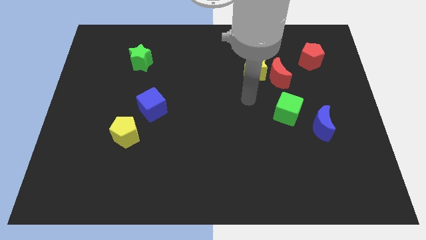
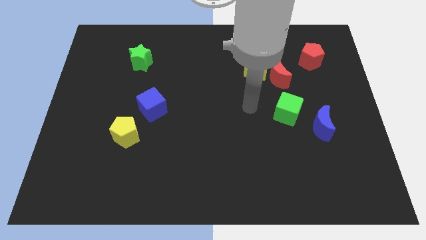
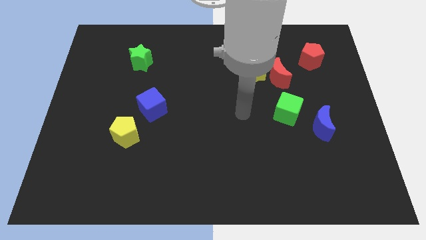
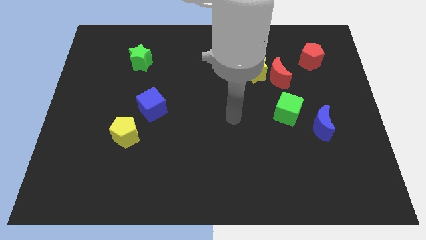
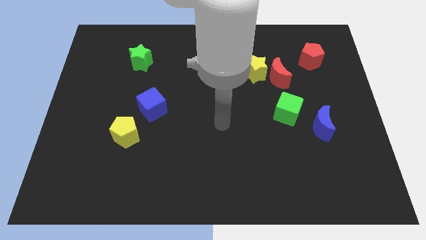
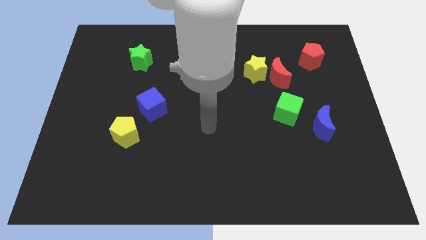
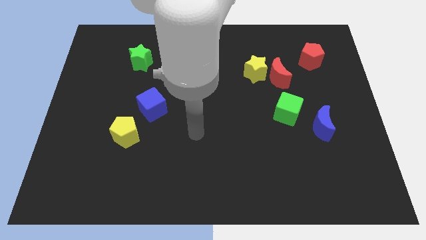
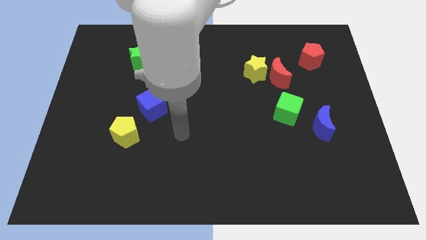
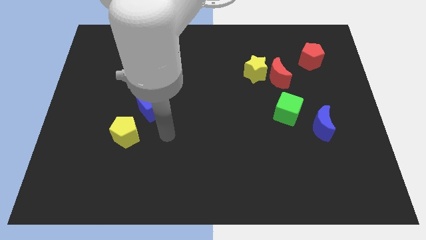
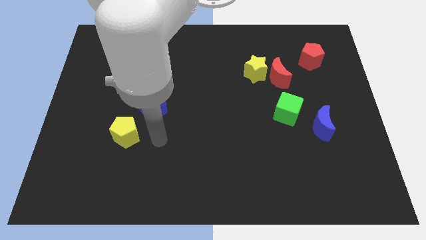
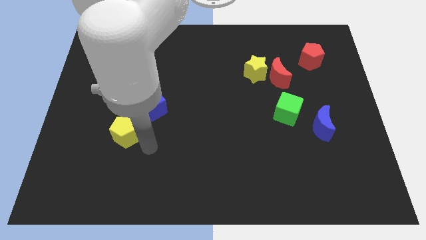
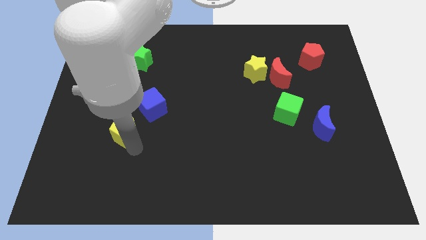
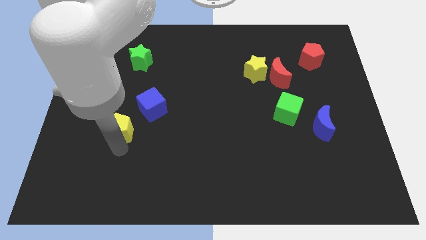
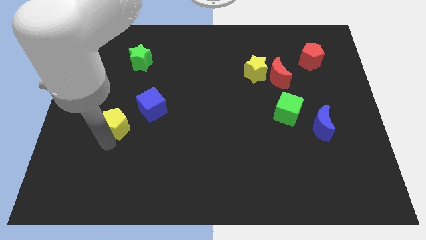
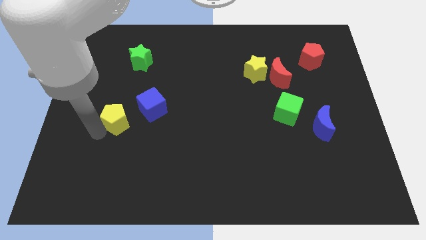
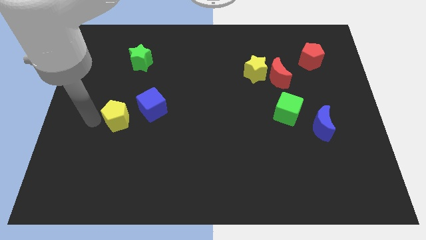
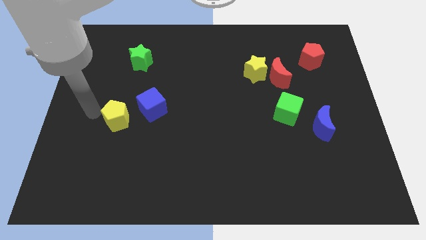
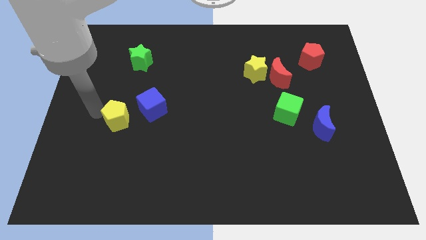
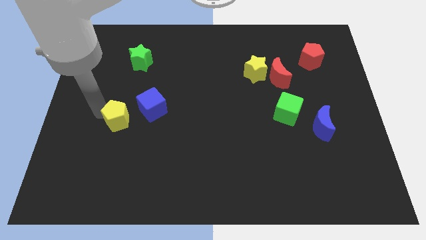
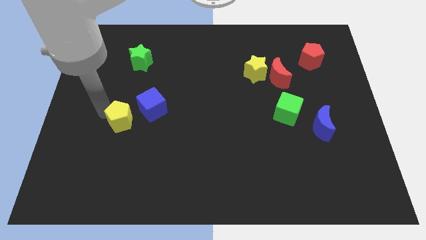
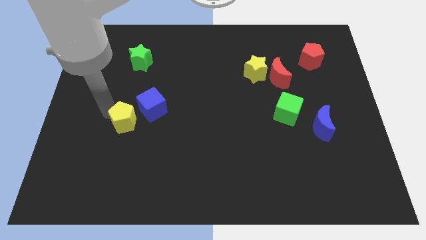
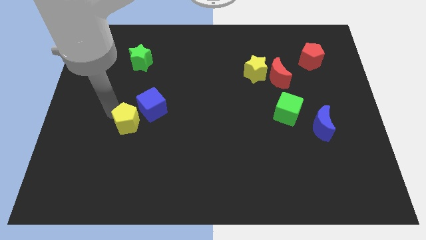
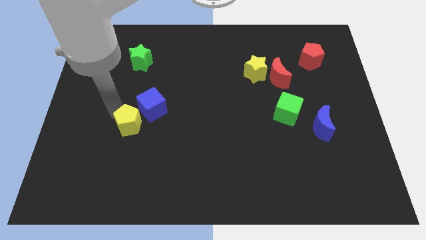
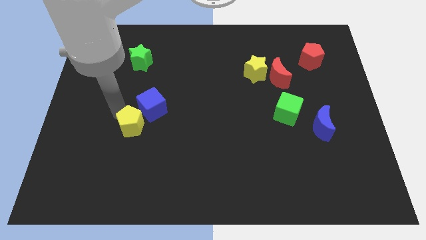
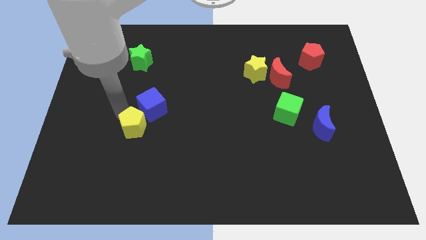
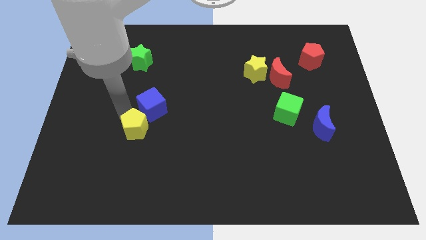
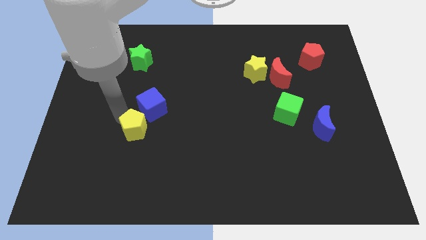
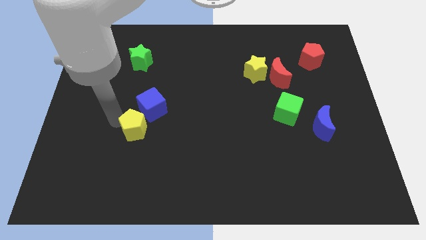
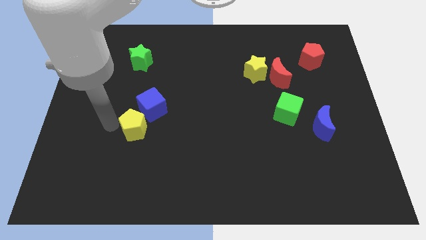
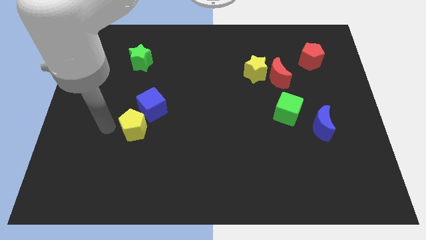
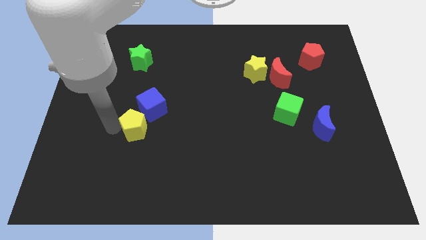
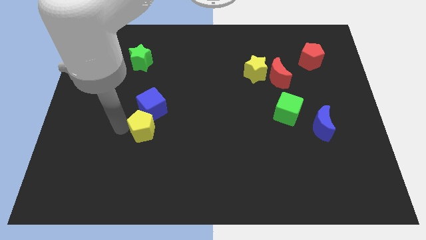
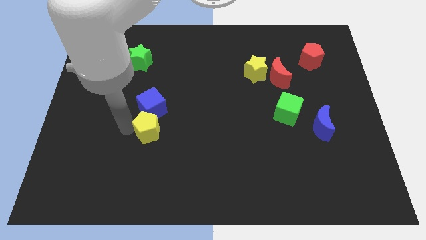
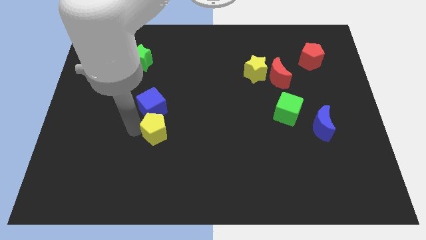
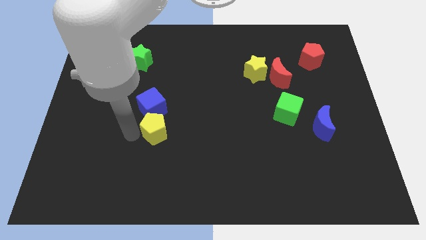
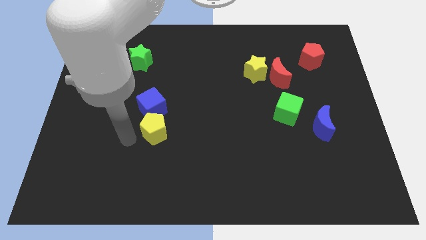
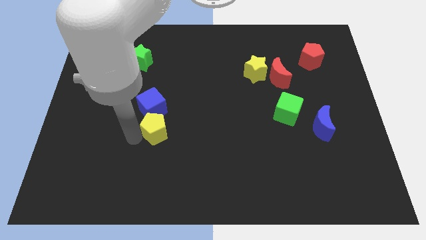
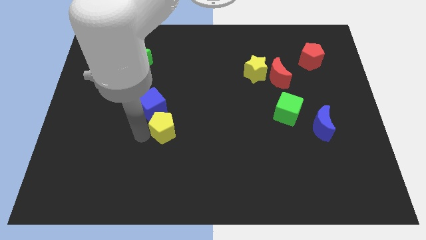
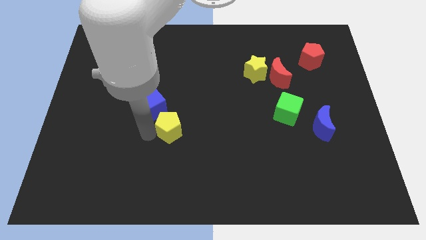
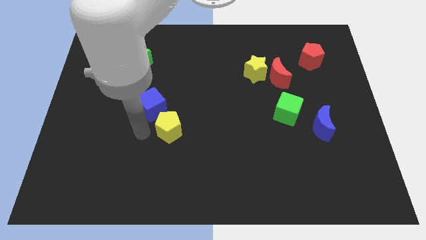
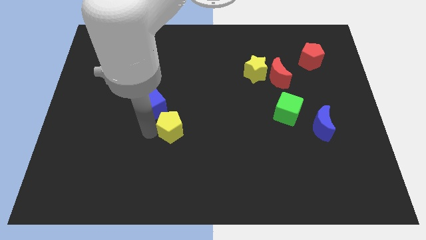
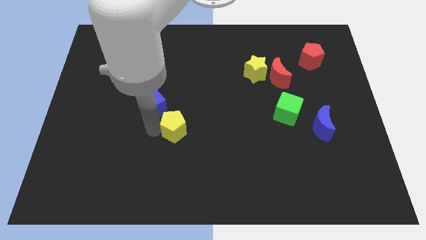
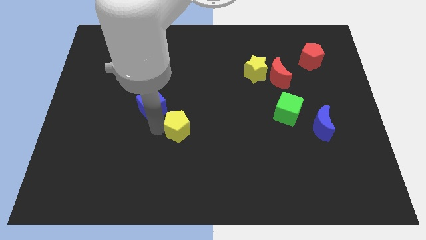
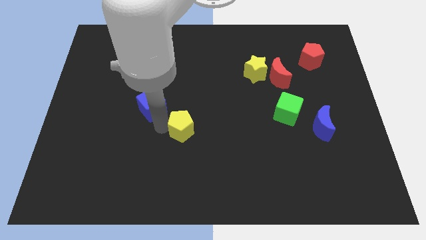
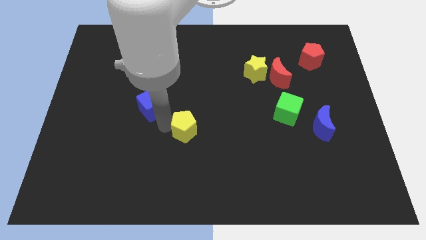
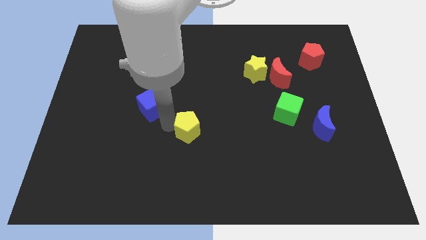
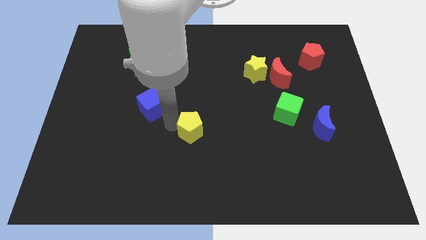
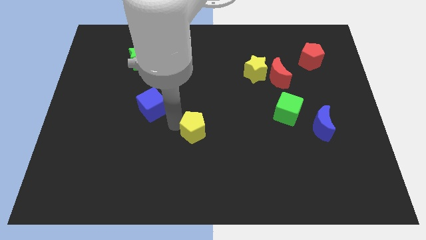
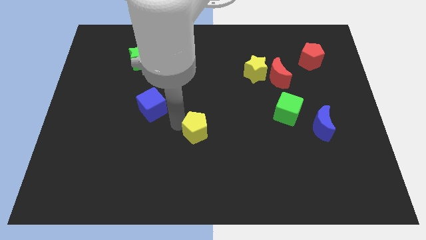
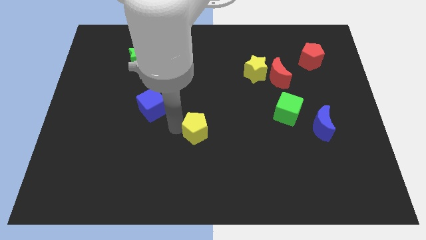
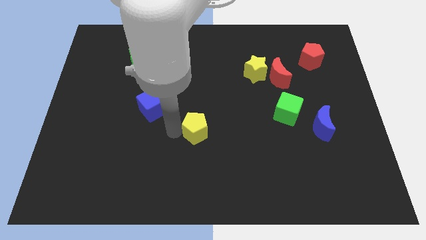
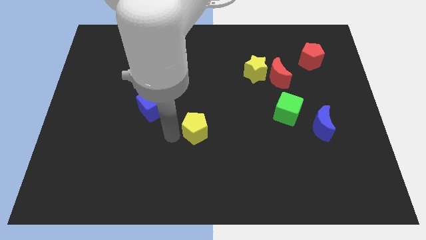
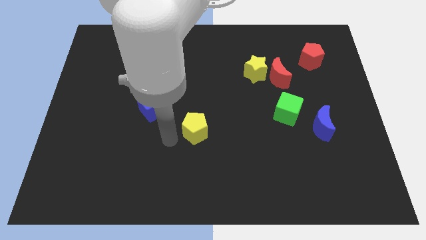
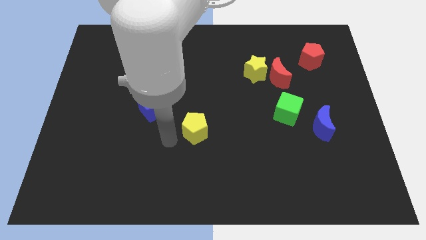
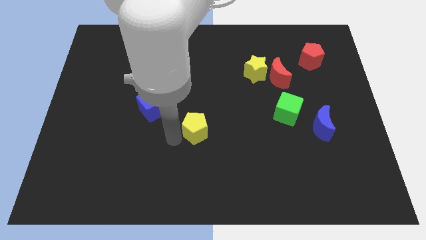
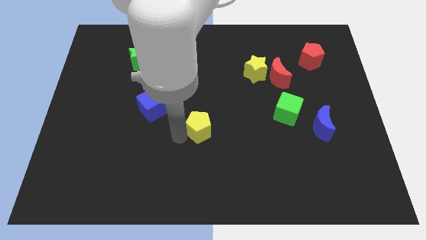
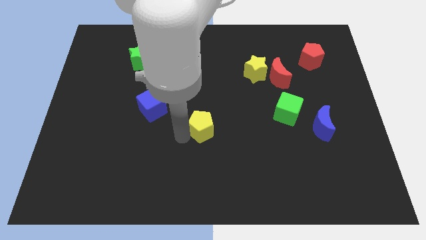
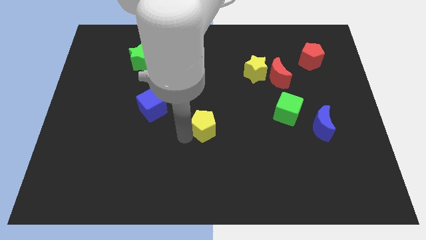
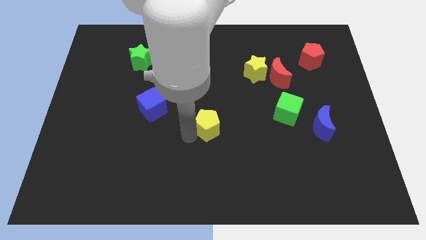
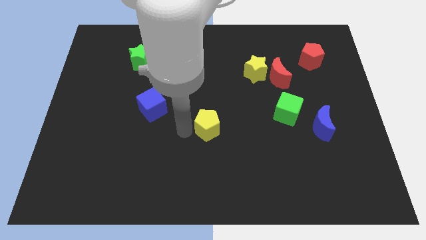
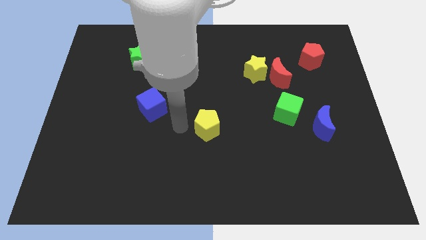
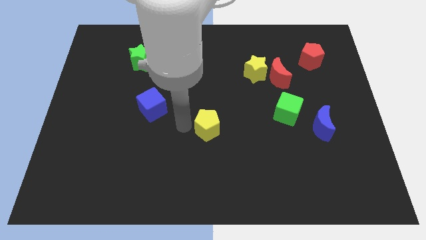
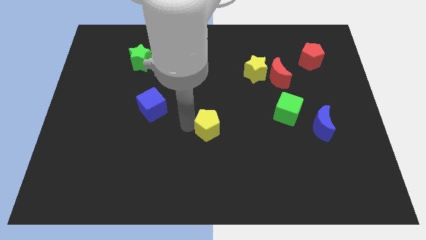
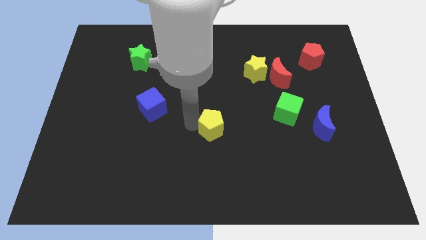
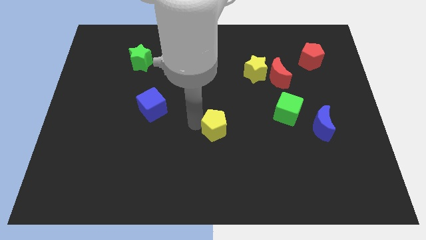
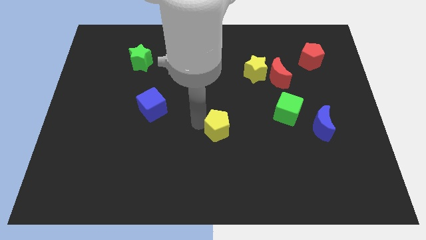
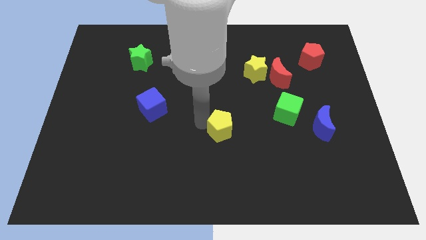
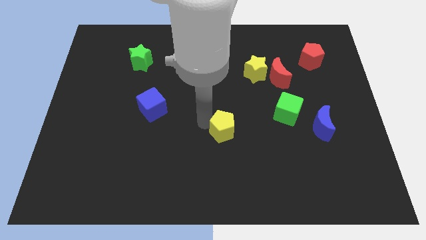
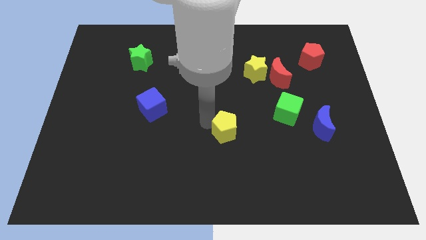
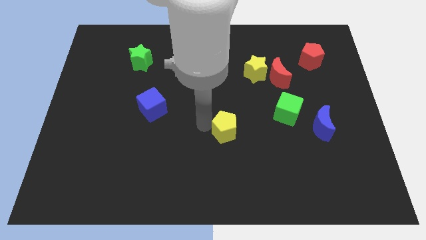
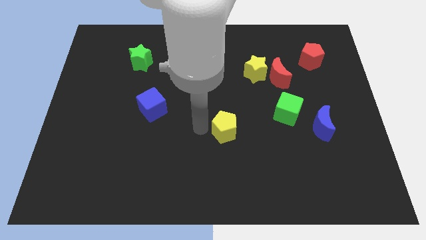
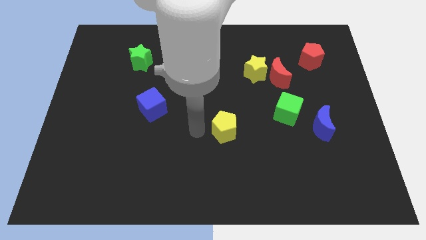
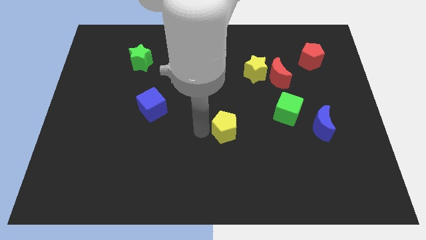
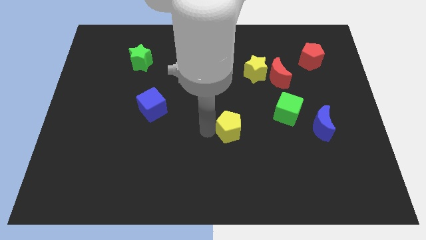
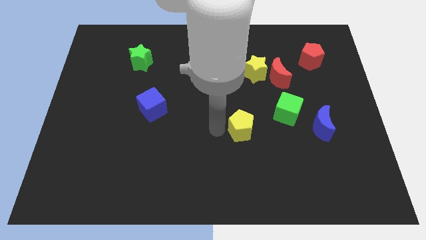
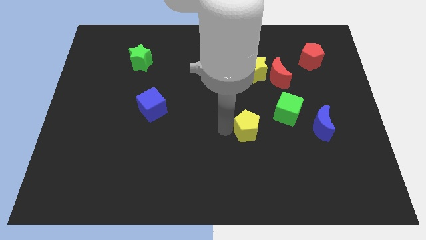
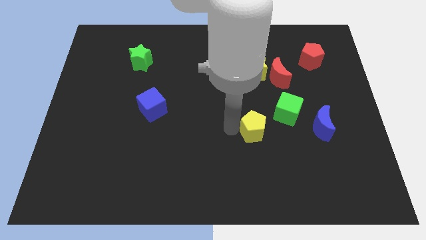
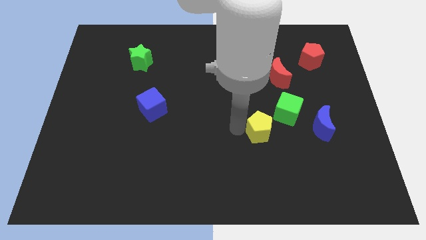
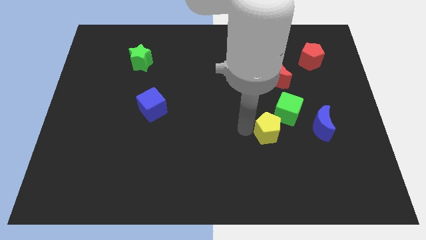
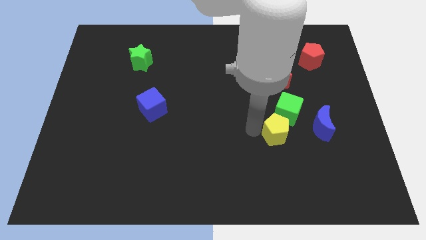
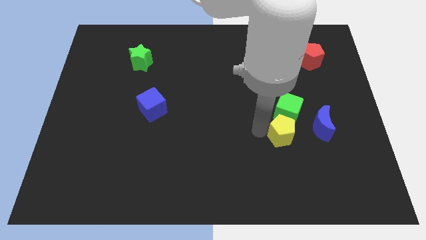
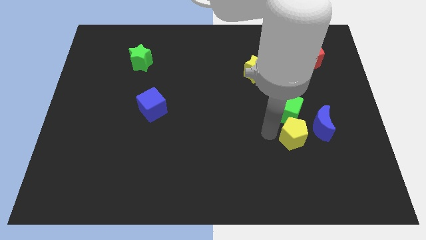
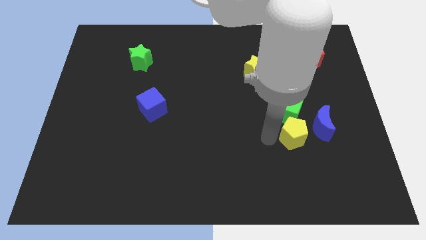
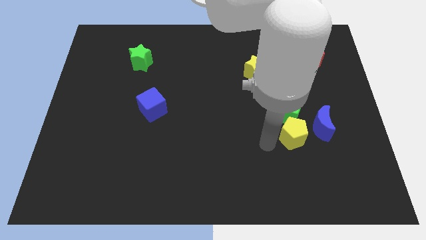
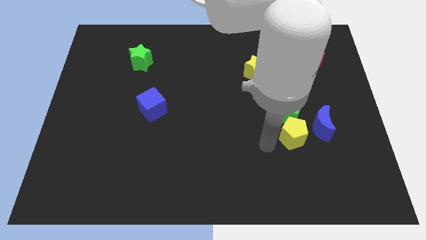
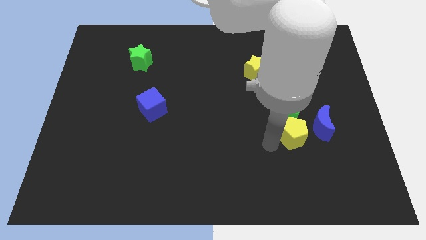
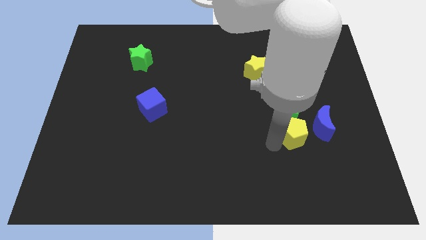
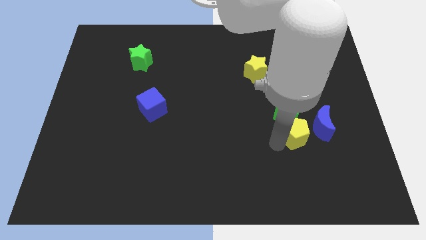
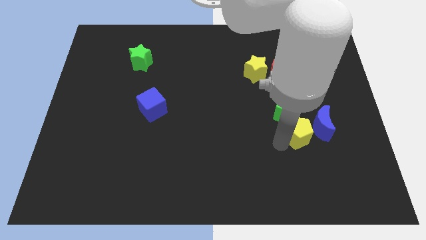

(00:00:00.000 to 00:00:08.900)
put the yellow pentagon next to the blue moon
